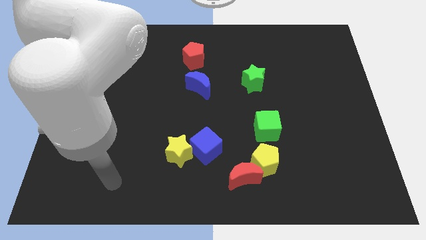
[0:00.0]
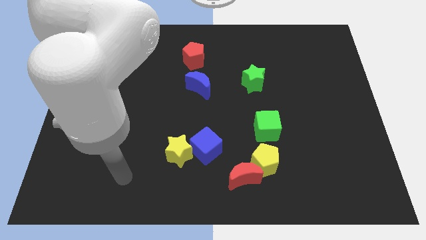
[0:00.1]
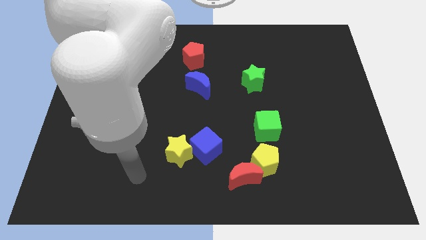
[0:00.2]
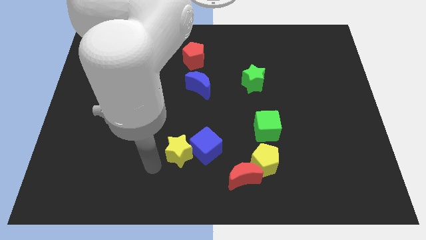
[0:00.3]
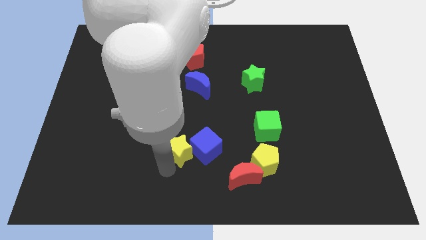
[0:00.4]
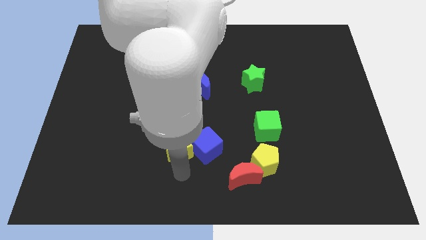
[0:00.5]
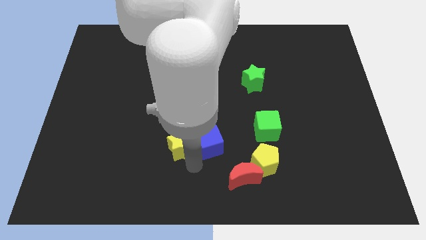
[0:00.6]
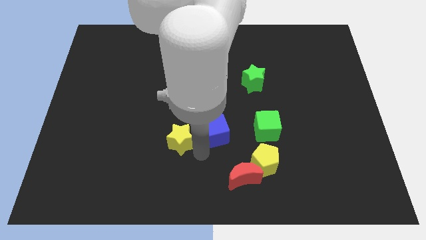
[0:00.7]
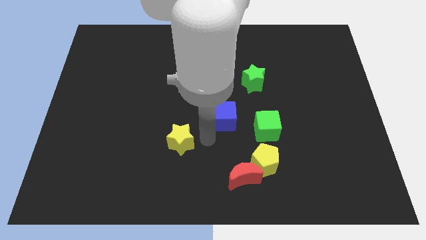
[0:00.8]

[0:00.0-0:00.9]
move the yellow star away from the blue cube

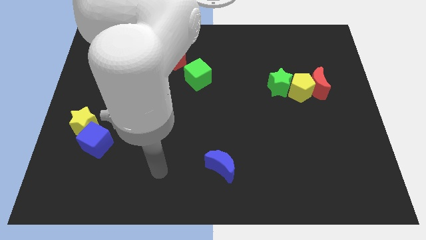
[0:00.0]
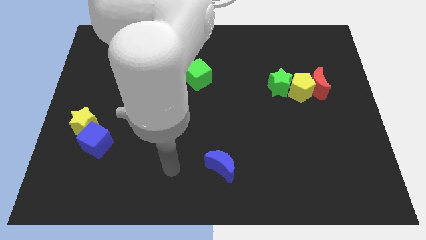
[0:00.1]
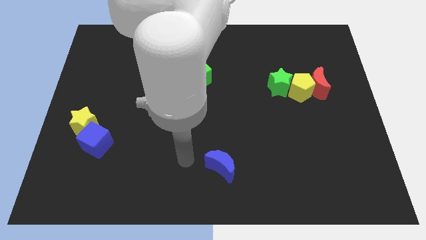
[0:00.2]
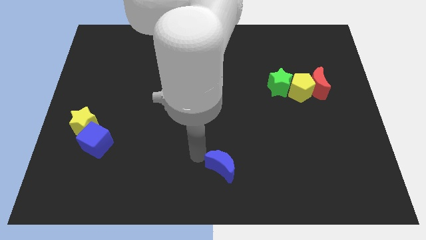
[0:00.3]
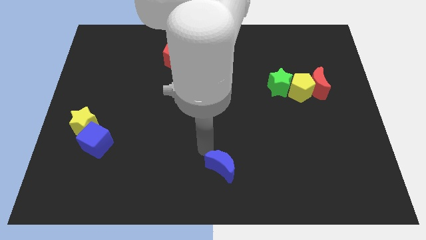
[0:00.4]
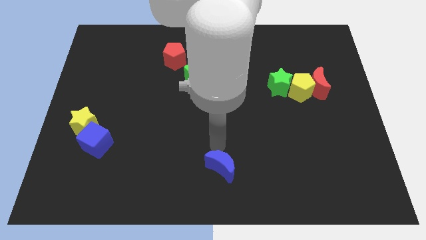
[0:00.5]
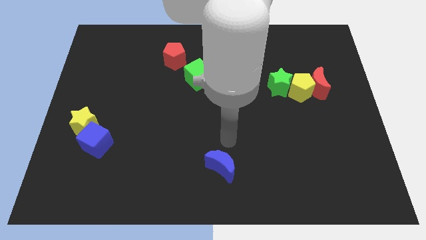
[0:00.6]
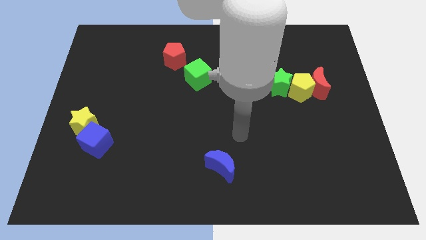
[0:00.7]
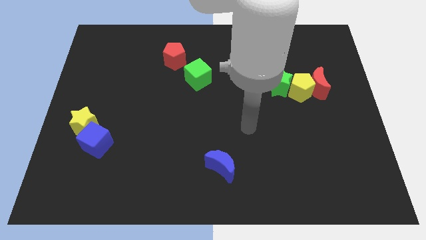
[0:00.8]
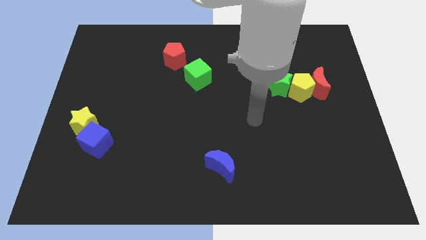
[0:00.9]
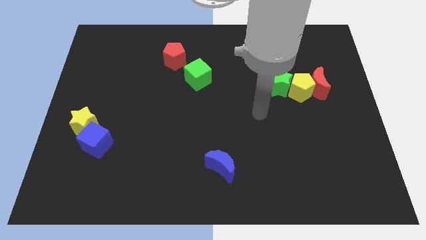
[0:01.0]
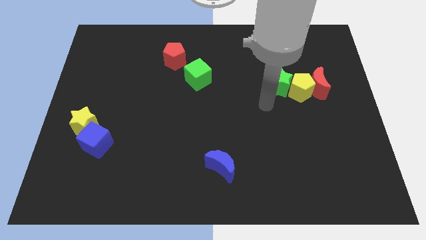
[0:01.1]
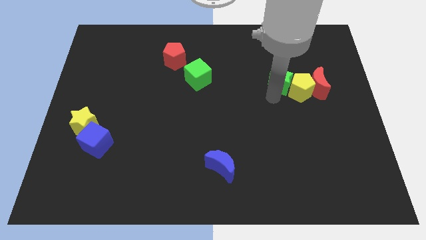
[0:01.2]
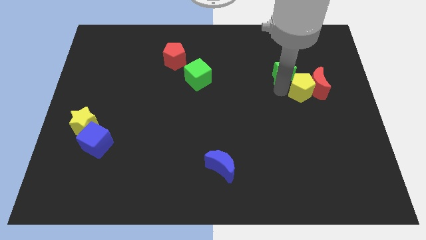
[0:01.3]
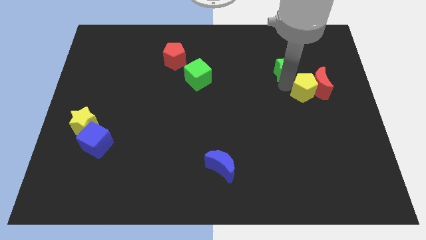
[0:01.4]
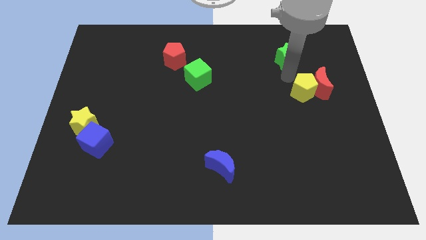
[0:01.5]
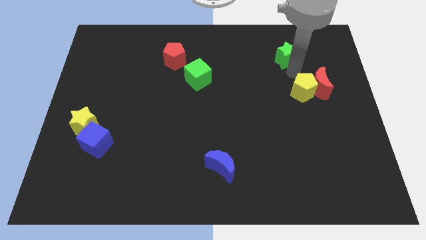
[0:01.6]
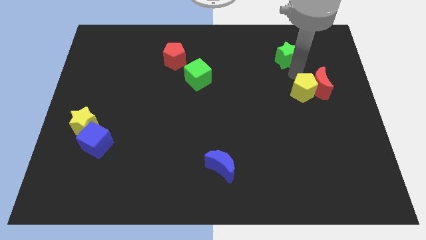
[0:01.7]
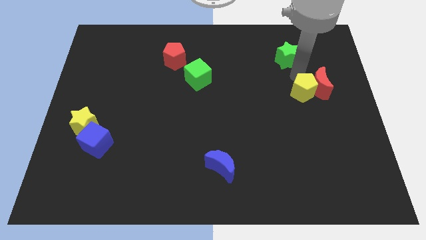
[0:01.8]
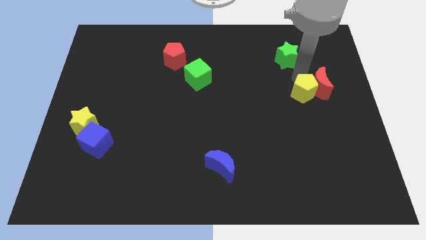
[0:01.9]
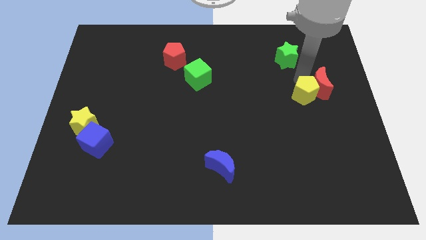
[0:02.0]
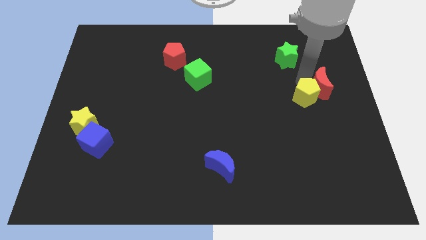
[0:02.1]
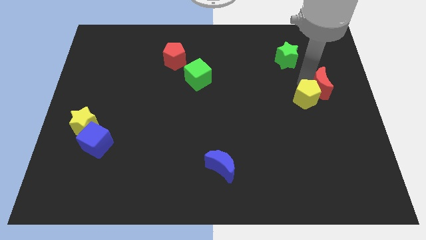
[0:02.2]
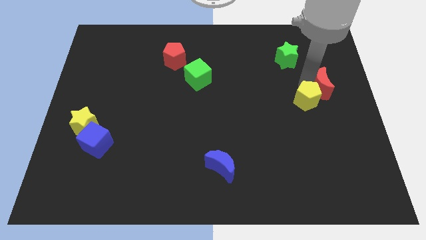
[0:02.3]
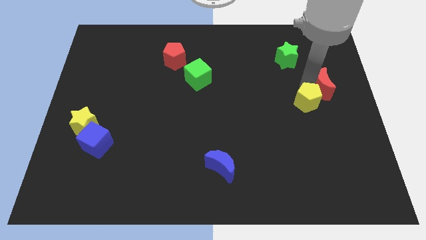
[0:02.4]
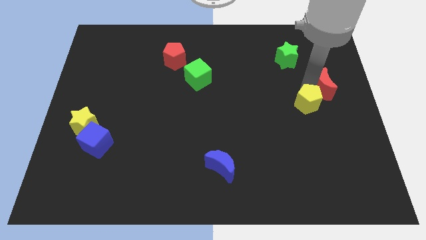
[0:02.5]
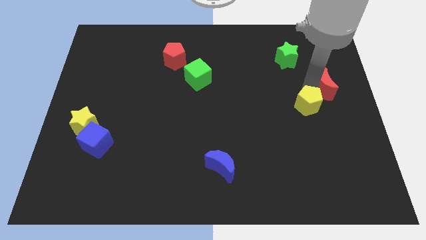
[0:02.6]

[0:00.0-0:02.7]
separate the yellow pentagon from the red moon and green star

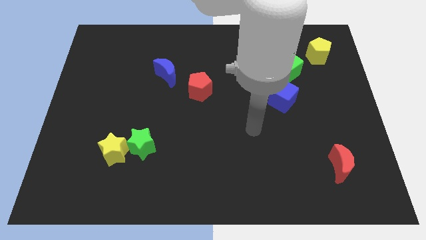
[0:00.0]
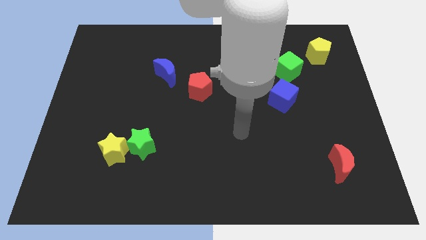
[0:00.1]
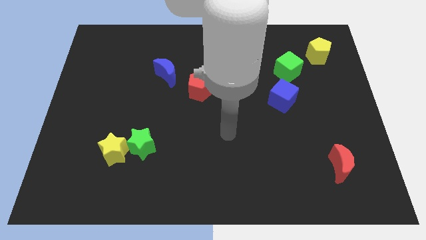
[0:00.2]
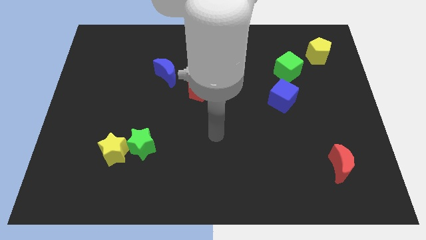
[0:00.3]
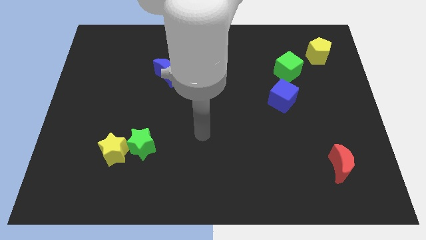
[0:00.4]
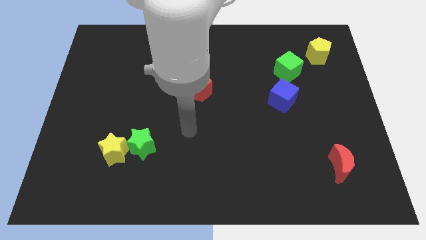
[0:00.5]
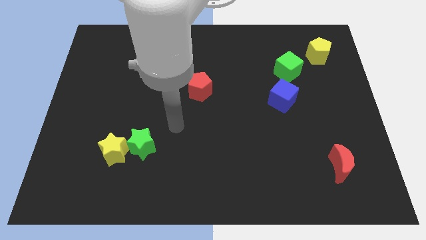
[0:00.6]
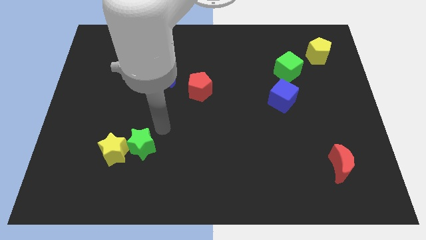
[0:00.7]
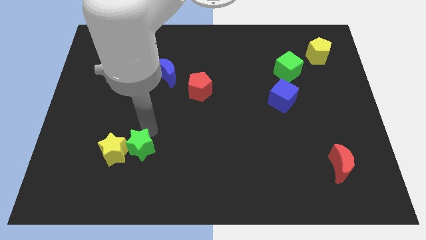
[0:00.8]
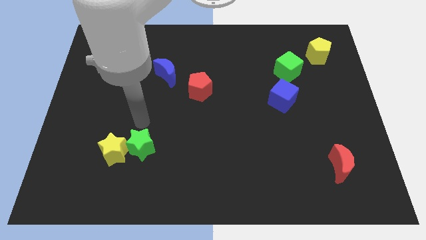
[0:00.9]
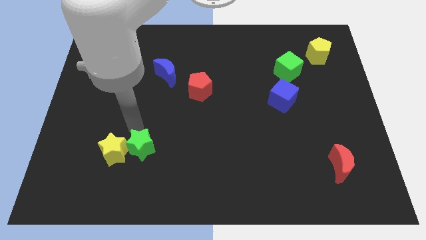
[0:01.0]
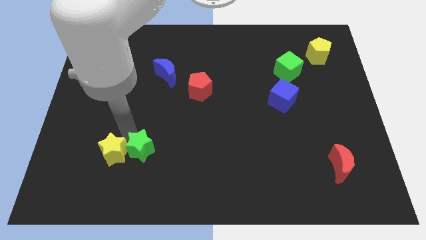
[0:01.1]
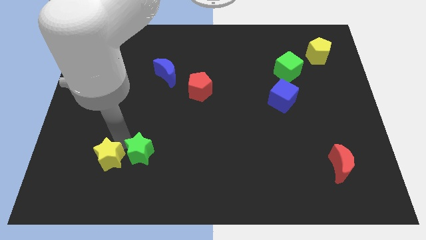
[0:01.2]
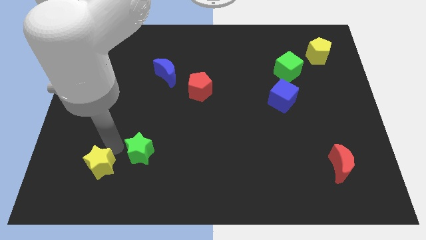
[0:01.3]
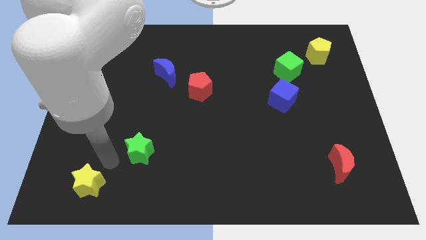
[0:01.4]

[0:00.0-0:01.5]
separate the green star from the yellow star

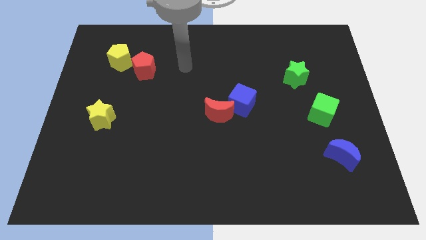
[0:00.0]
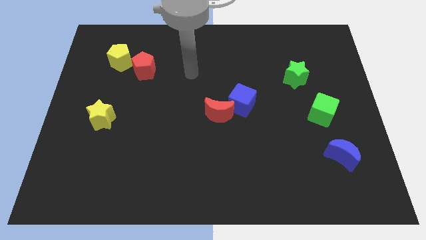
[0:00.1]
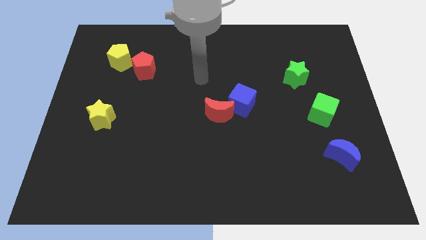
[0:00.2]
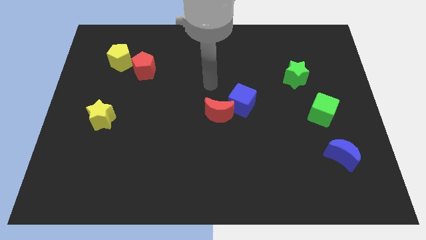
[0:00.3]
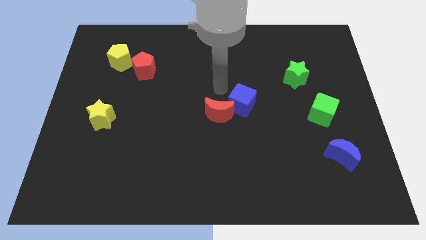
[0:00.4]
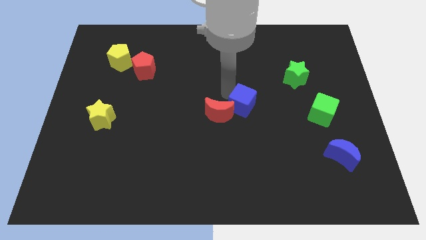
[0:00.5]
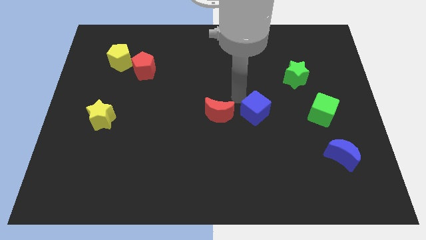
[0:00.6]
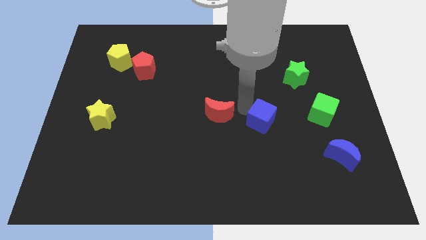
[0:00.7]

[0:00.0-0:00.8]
separate the red moon from the blue cube

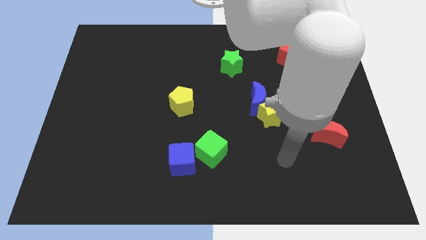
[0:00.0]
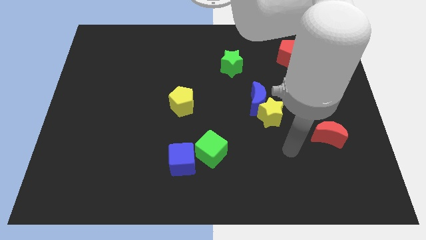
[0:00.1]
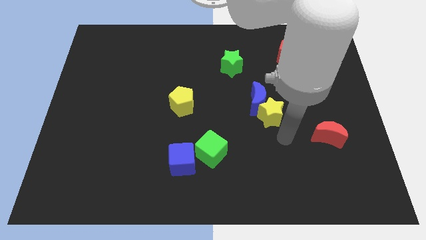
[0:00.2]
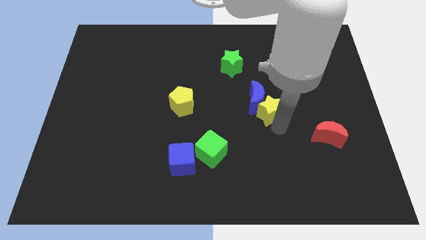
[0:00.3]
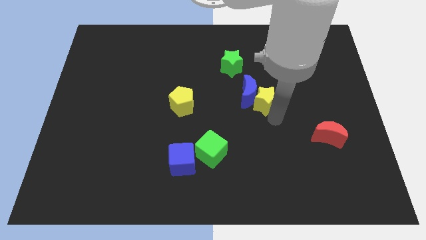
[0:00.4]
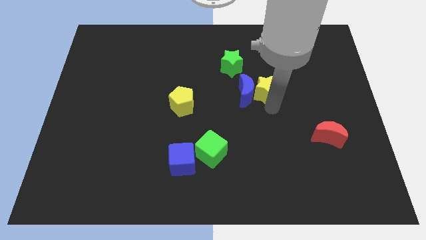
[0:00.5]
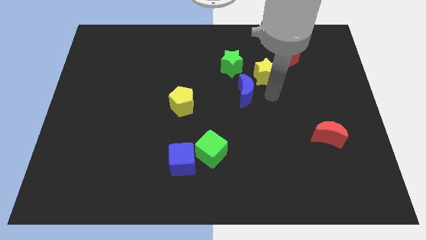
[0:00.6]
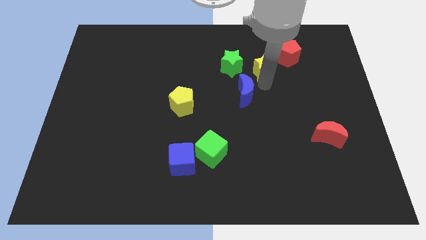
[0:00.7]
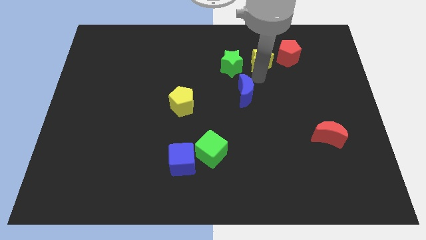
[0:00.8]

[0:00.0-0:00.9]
separate the blue moon from the yellow star

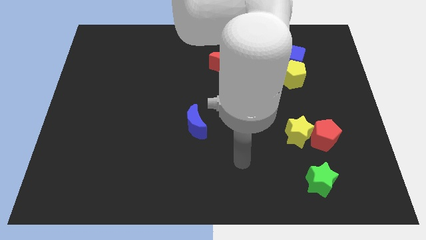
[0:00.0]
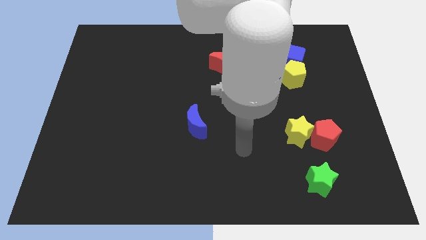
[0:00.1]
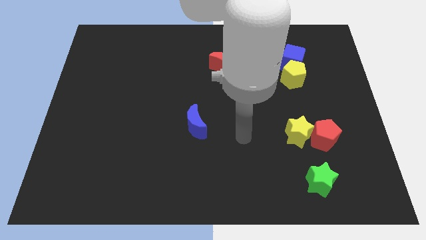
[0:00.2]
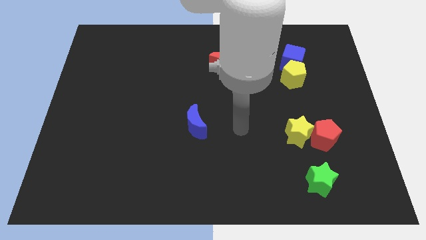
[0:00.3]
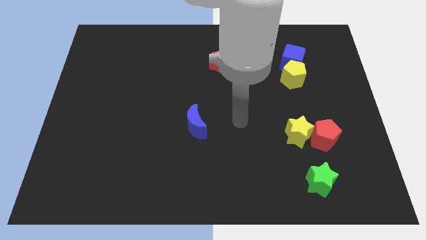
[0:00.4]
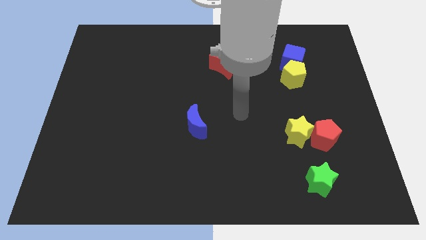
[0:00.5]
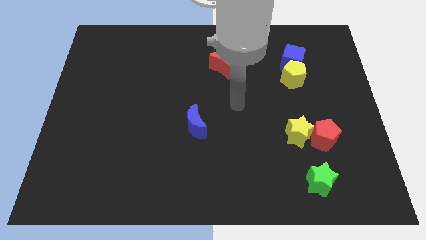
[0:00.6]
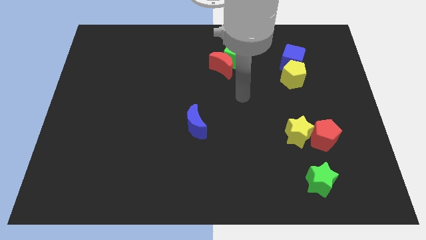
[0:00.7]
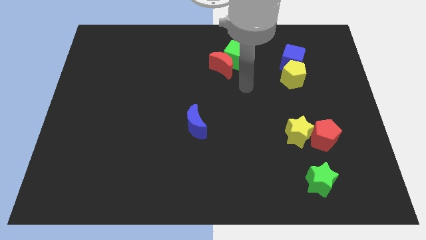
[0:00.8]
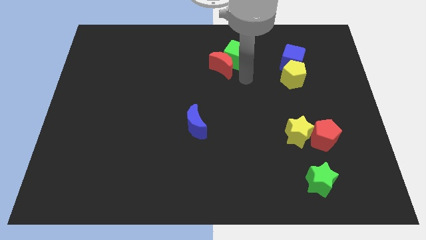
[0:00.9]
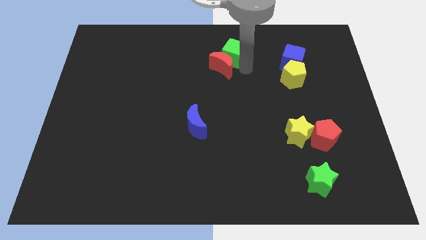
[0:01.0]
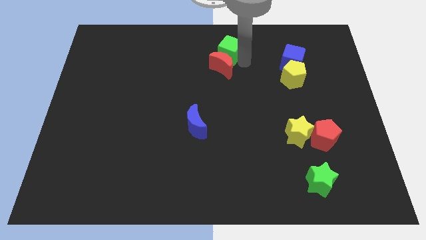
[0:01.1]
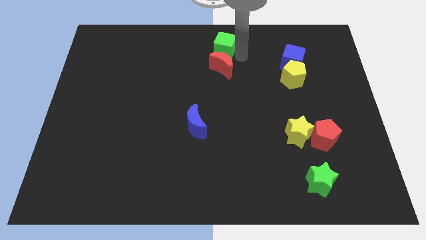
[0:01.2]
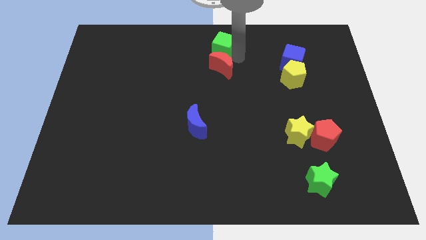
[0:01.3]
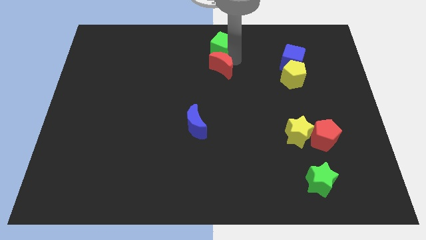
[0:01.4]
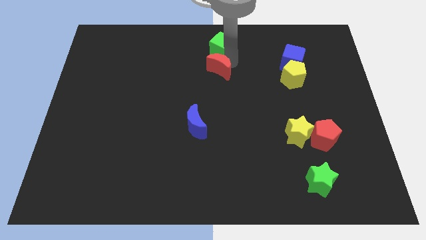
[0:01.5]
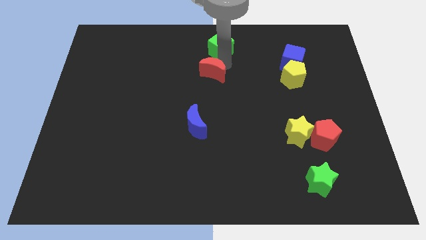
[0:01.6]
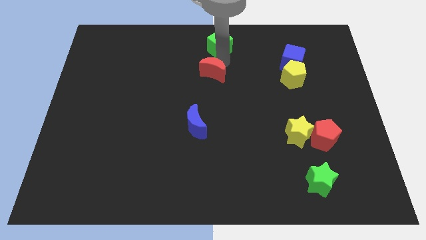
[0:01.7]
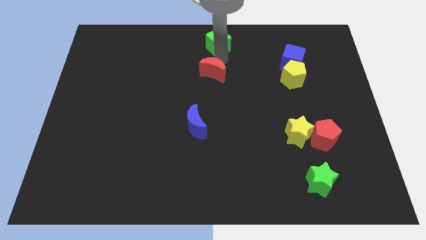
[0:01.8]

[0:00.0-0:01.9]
pull the red moon apart from the green cube

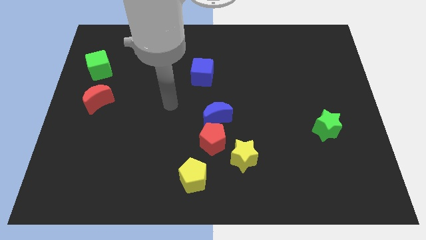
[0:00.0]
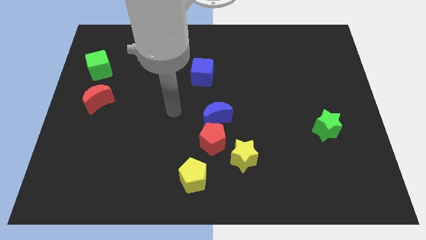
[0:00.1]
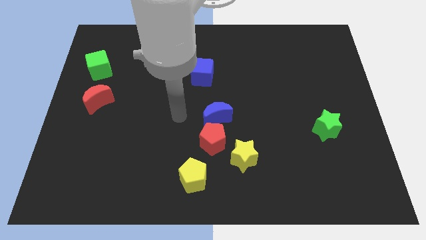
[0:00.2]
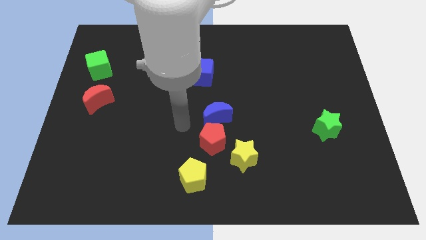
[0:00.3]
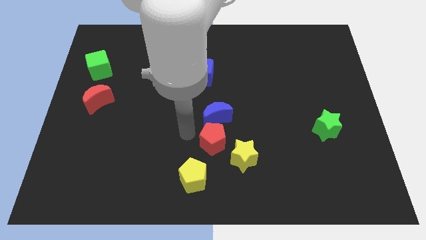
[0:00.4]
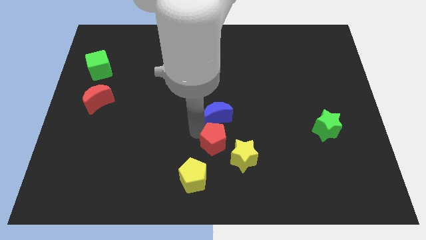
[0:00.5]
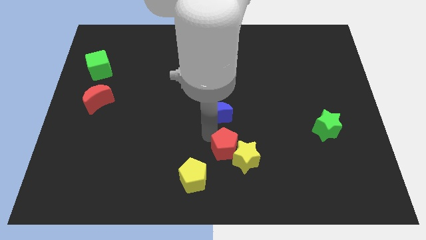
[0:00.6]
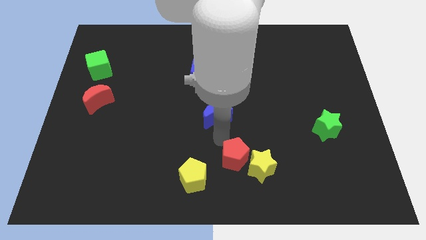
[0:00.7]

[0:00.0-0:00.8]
separate the blue moon from the red pentagon
